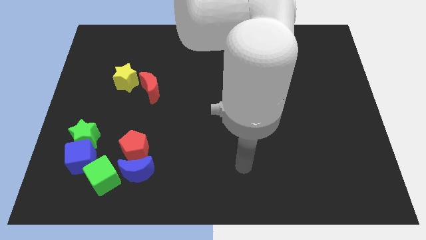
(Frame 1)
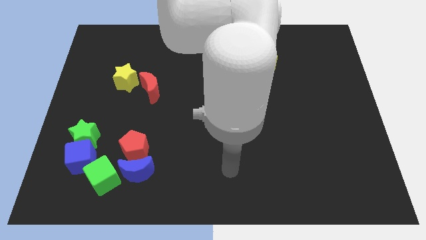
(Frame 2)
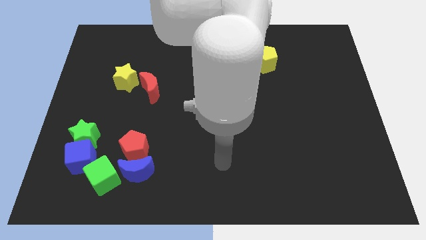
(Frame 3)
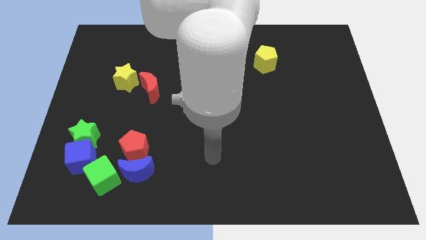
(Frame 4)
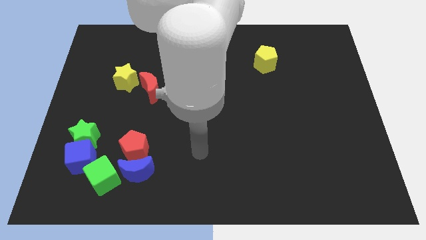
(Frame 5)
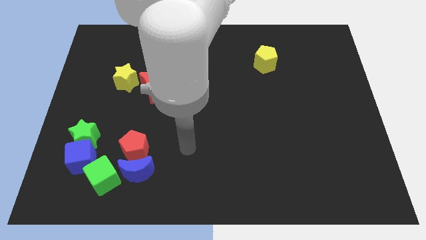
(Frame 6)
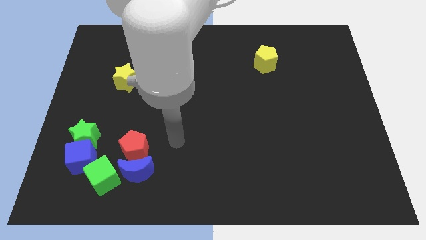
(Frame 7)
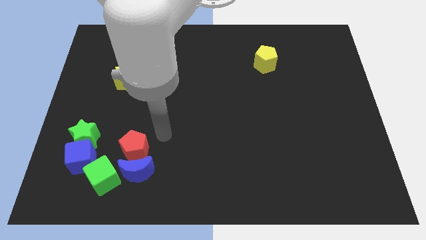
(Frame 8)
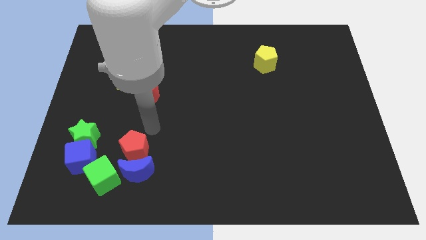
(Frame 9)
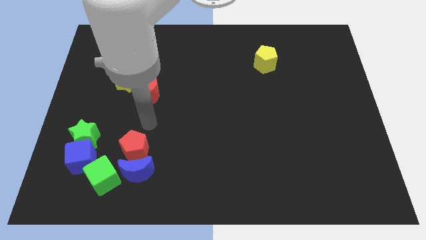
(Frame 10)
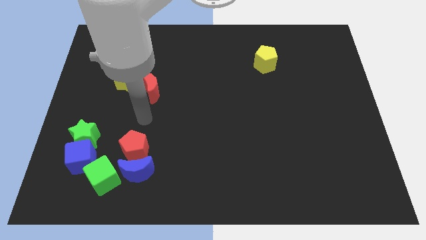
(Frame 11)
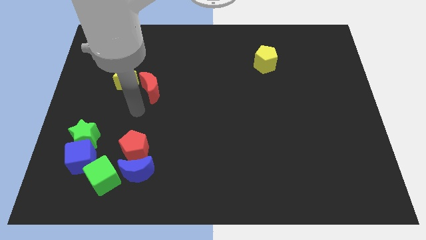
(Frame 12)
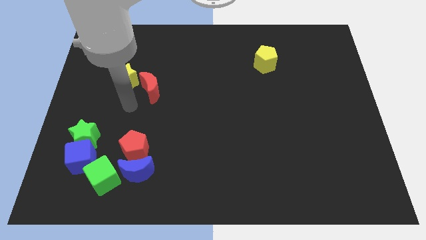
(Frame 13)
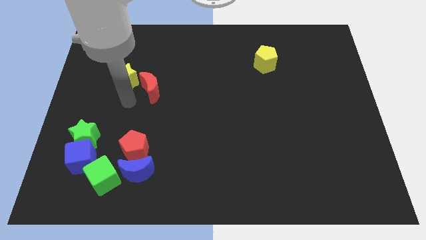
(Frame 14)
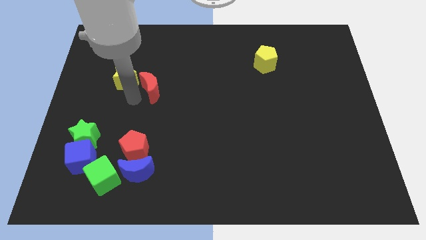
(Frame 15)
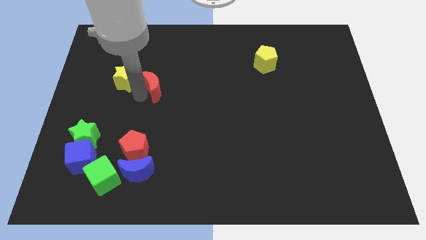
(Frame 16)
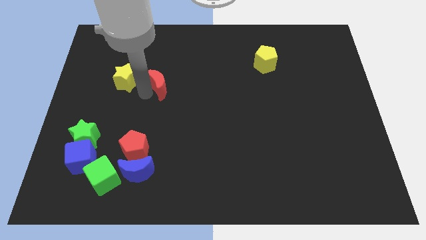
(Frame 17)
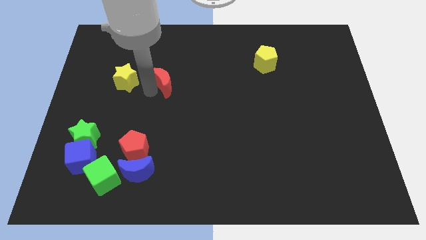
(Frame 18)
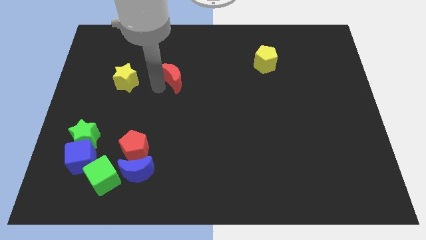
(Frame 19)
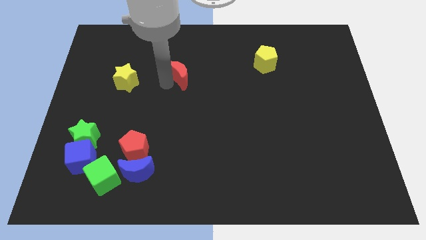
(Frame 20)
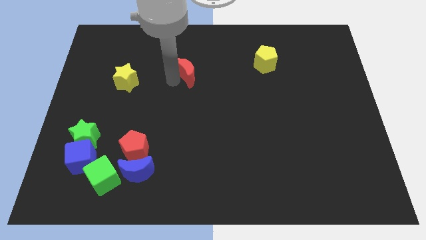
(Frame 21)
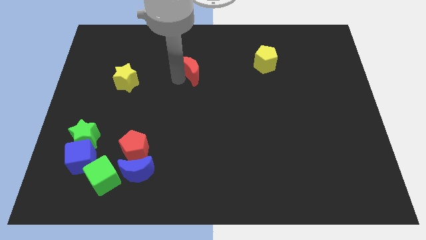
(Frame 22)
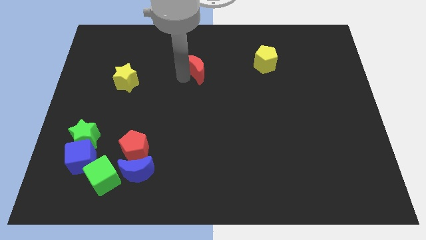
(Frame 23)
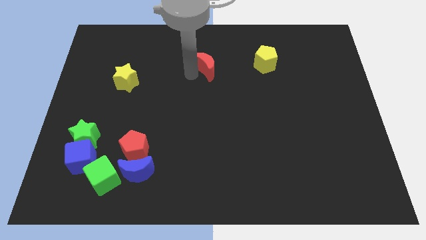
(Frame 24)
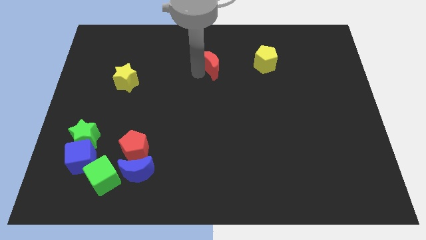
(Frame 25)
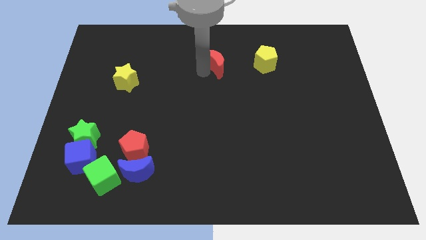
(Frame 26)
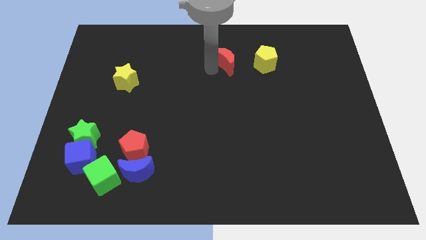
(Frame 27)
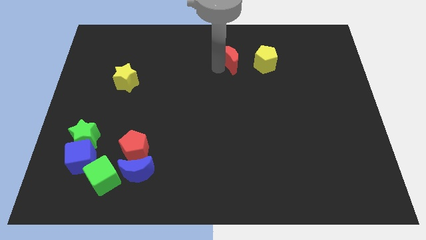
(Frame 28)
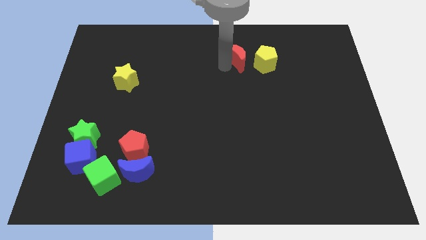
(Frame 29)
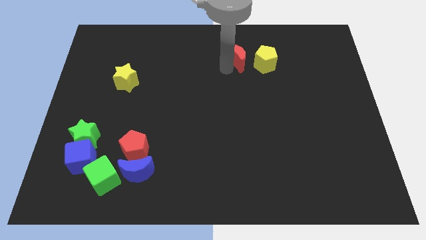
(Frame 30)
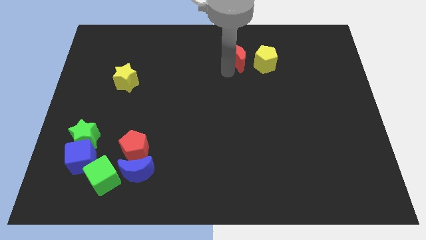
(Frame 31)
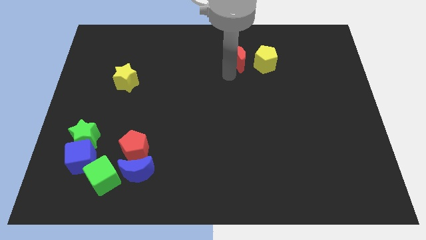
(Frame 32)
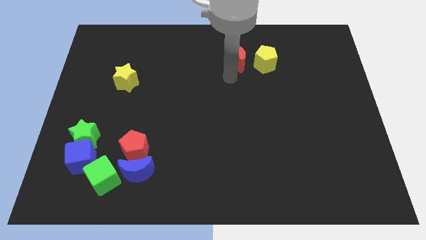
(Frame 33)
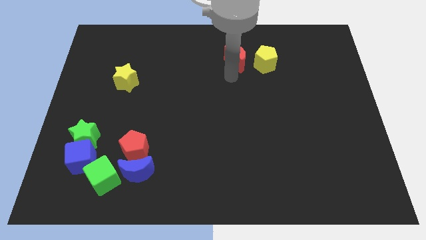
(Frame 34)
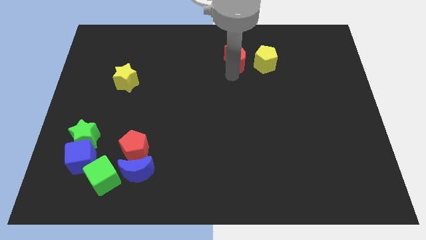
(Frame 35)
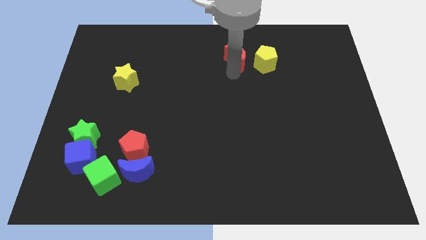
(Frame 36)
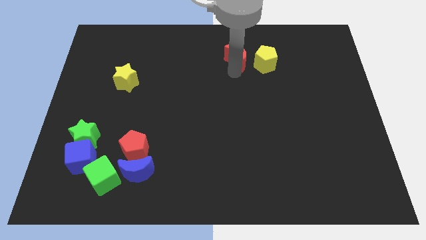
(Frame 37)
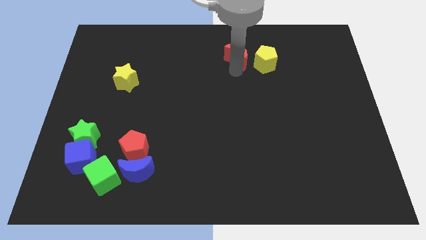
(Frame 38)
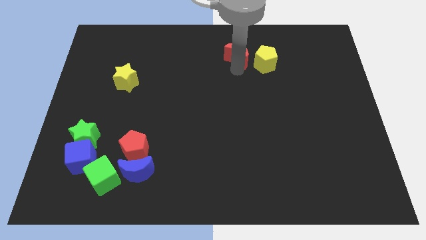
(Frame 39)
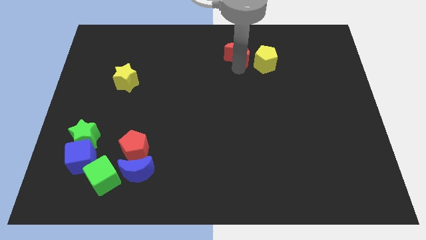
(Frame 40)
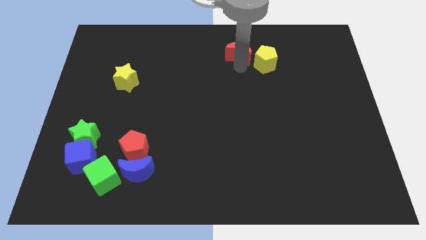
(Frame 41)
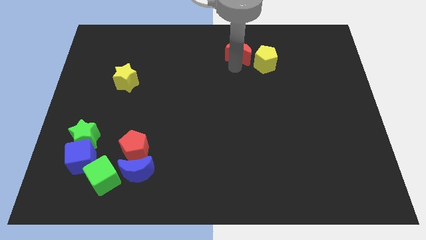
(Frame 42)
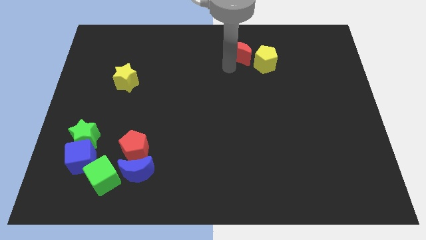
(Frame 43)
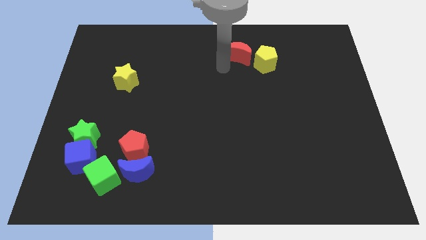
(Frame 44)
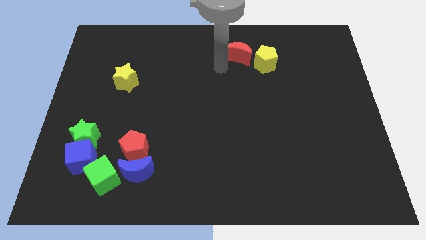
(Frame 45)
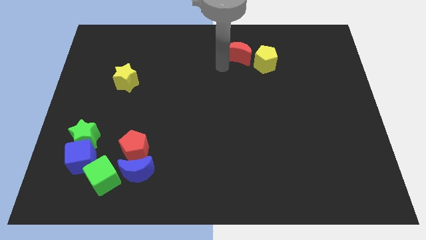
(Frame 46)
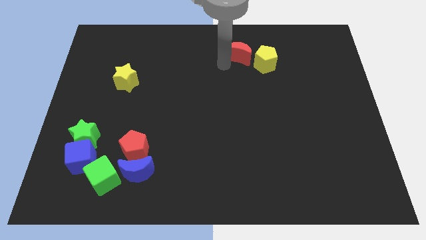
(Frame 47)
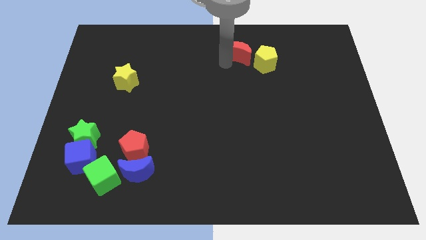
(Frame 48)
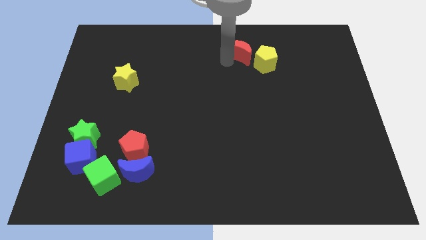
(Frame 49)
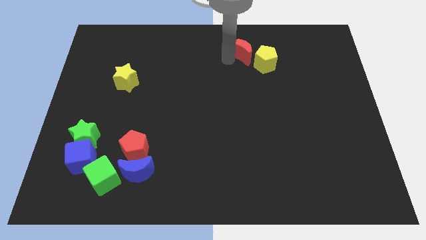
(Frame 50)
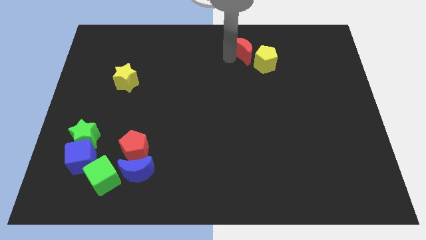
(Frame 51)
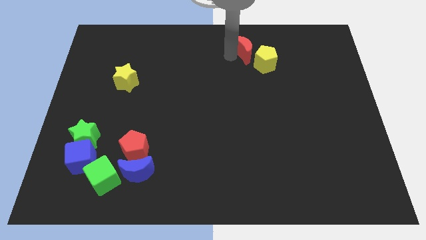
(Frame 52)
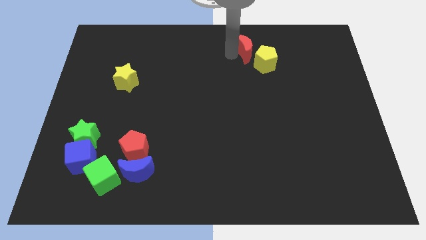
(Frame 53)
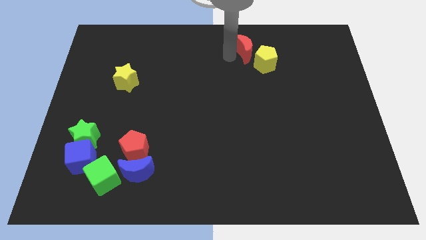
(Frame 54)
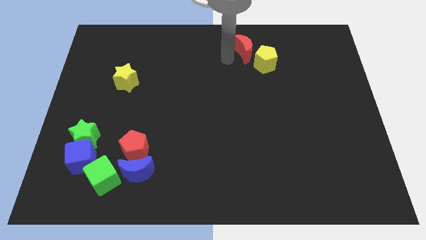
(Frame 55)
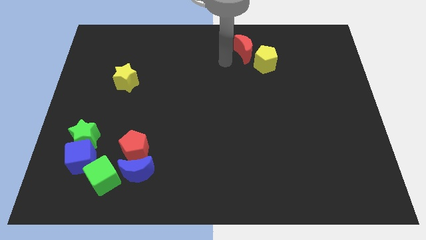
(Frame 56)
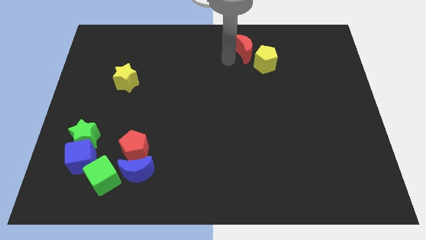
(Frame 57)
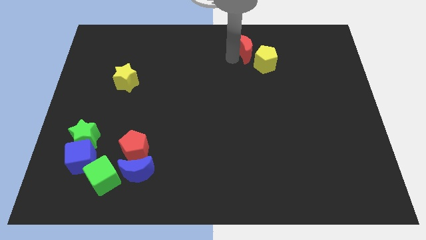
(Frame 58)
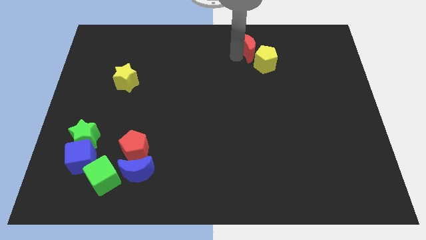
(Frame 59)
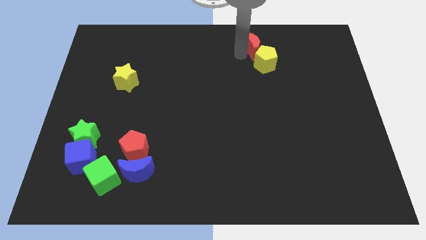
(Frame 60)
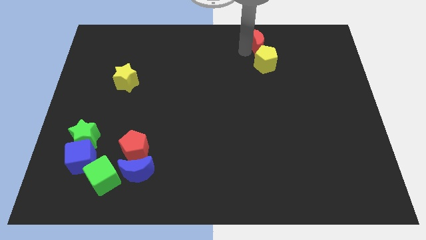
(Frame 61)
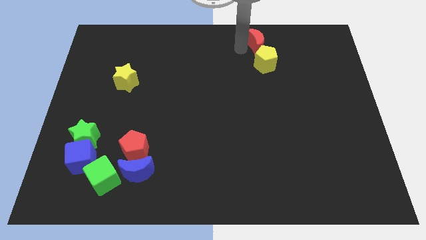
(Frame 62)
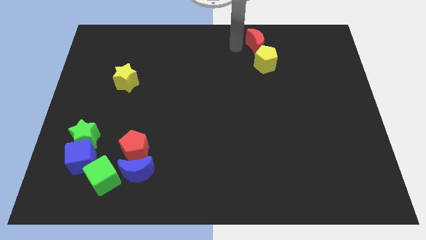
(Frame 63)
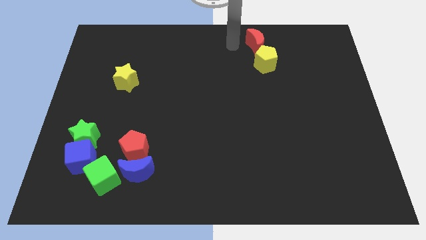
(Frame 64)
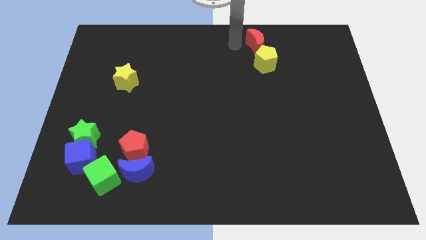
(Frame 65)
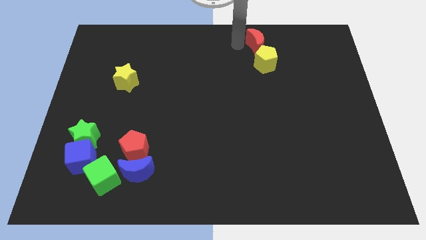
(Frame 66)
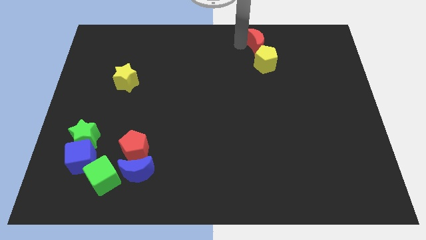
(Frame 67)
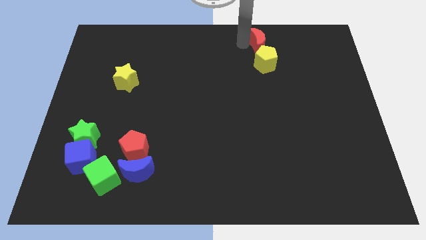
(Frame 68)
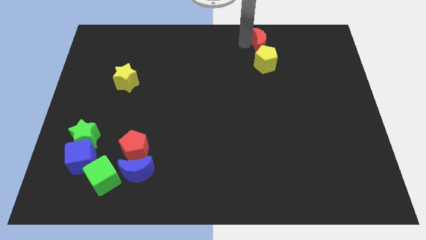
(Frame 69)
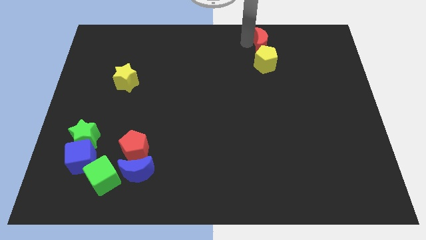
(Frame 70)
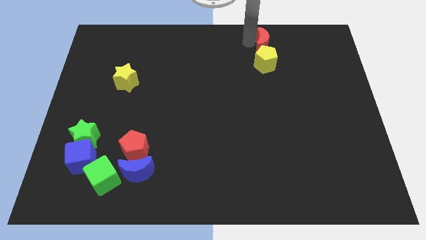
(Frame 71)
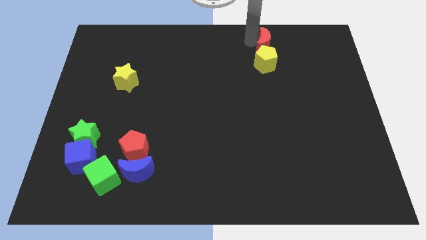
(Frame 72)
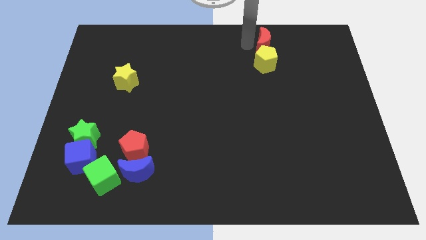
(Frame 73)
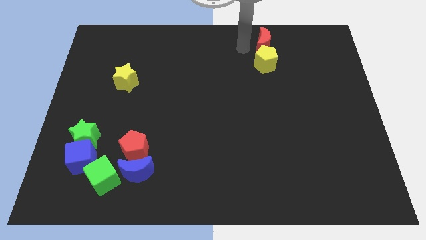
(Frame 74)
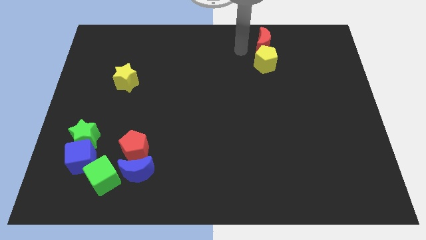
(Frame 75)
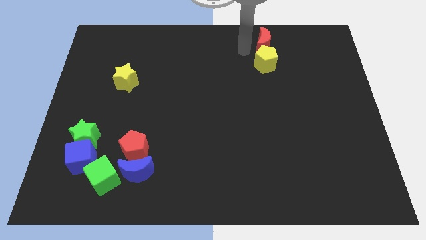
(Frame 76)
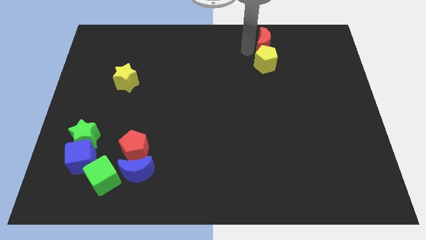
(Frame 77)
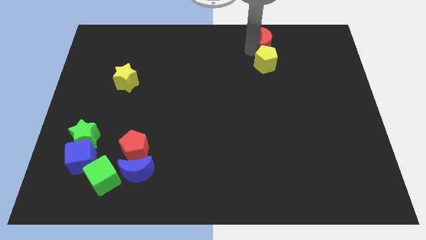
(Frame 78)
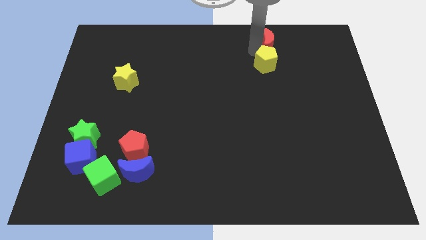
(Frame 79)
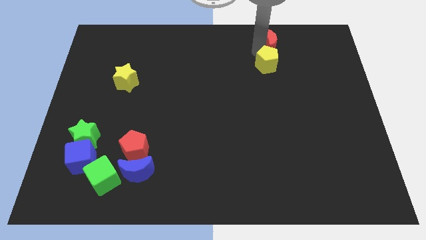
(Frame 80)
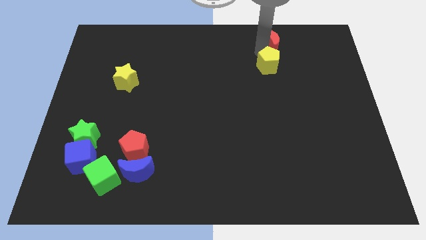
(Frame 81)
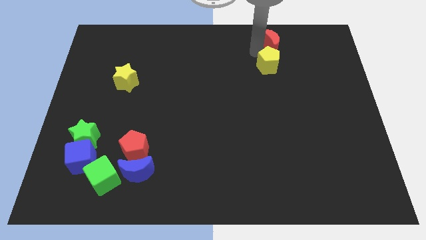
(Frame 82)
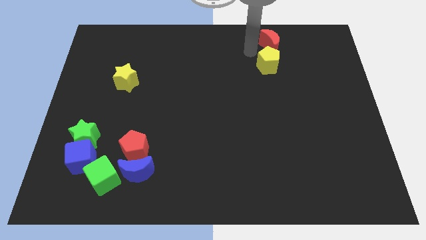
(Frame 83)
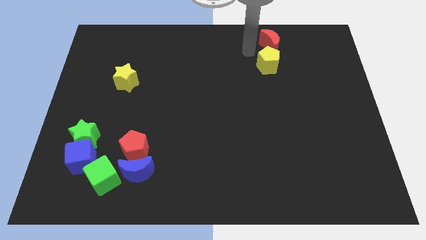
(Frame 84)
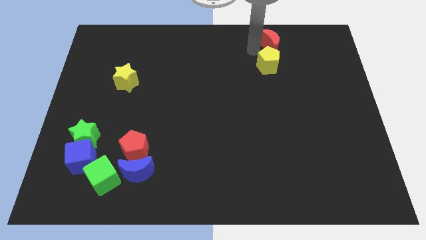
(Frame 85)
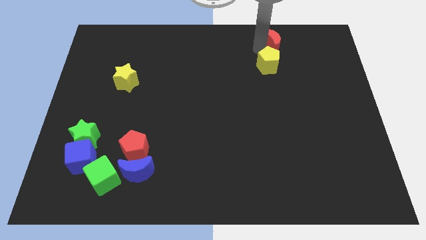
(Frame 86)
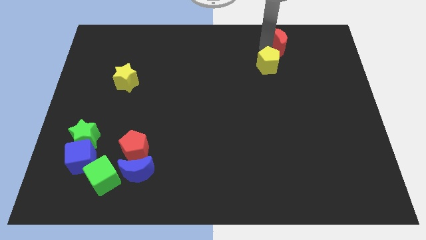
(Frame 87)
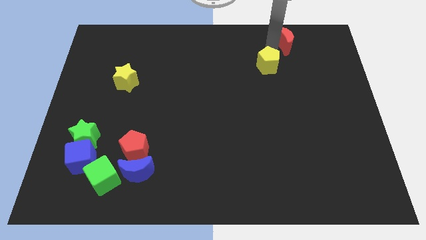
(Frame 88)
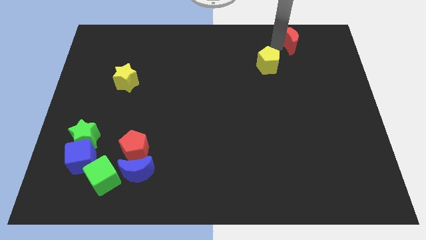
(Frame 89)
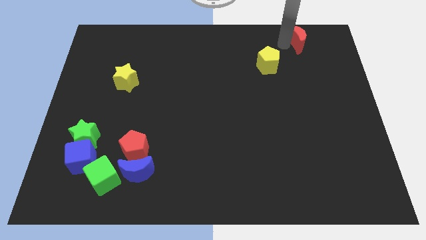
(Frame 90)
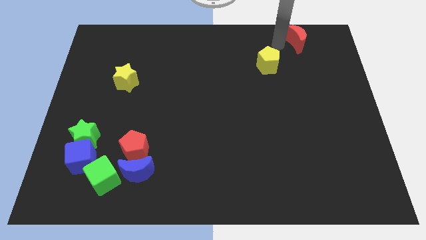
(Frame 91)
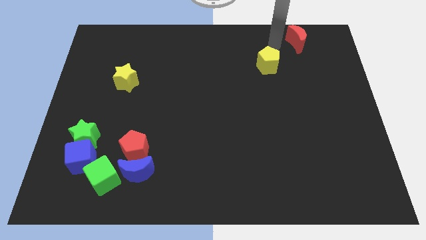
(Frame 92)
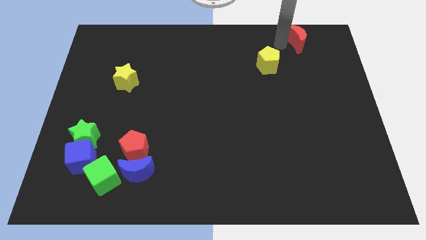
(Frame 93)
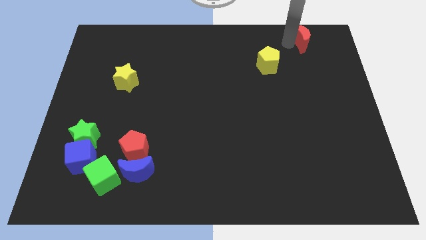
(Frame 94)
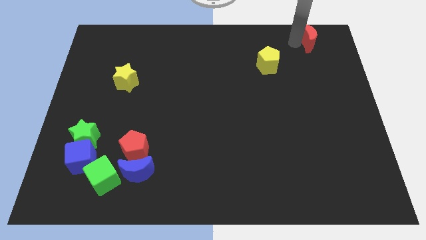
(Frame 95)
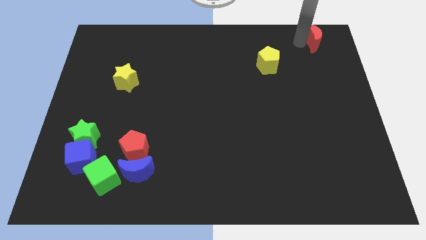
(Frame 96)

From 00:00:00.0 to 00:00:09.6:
move the red moon to the upper right corner
